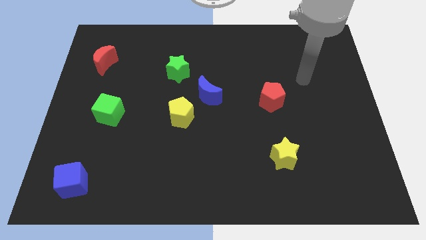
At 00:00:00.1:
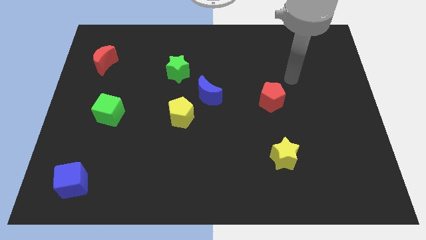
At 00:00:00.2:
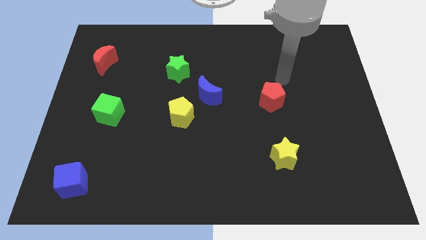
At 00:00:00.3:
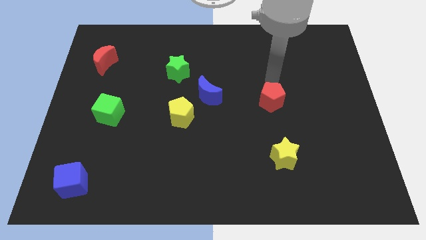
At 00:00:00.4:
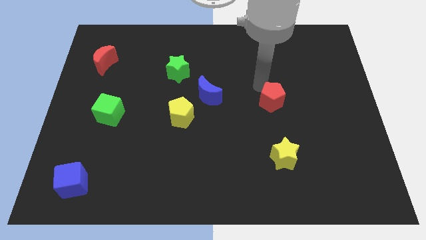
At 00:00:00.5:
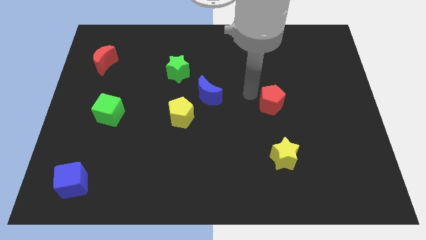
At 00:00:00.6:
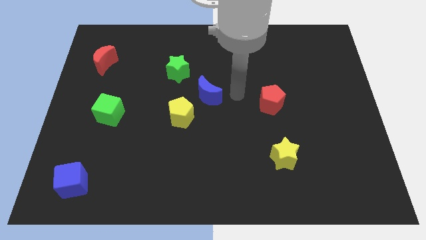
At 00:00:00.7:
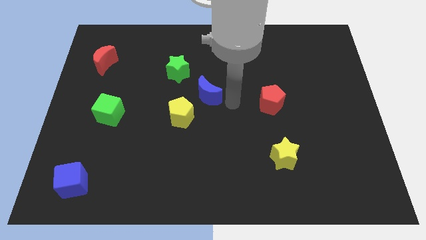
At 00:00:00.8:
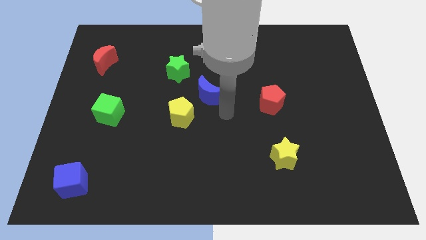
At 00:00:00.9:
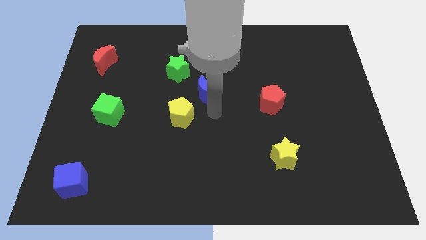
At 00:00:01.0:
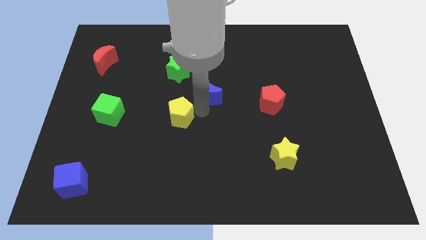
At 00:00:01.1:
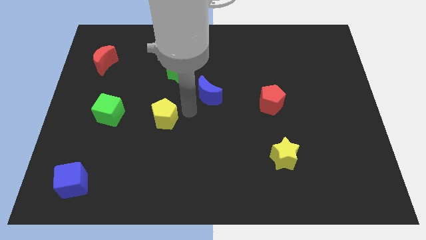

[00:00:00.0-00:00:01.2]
move the blue moon away from the yellow pentagon

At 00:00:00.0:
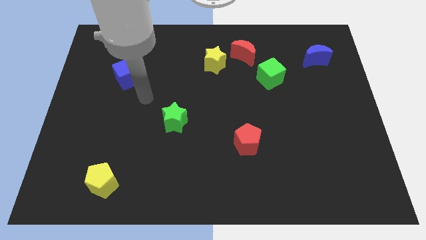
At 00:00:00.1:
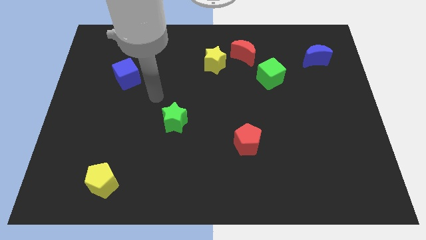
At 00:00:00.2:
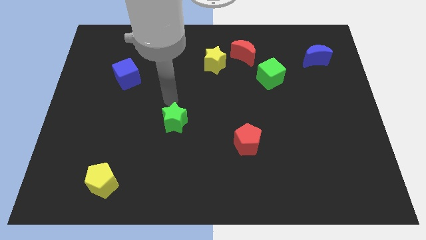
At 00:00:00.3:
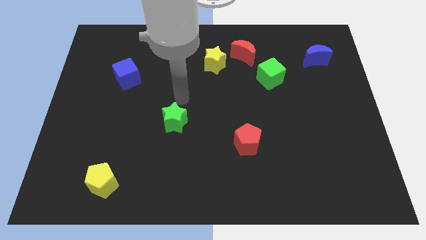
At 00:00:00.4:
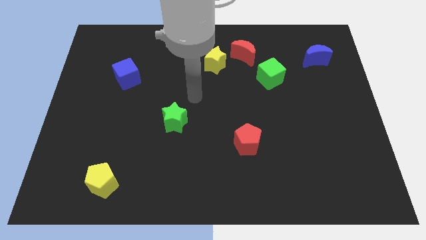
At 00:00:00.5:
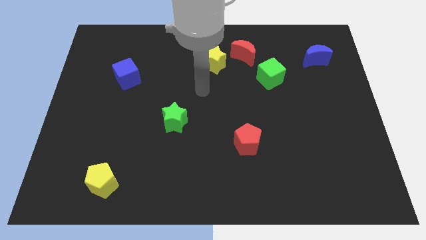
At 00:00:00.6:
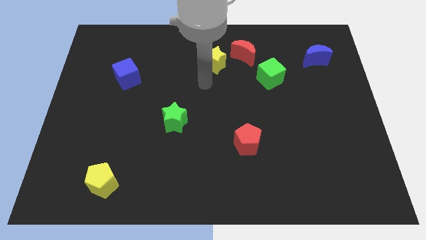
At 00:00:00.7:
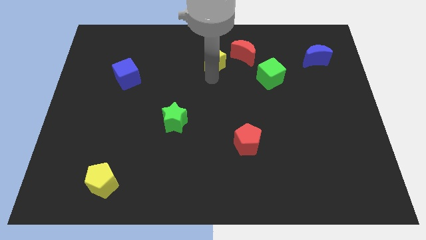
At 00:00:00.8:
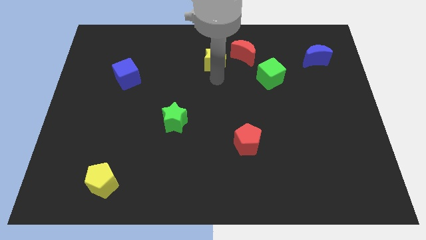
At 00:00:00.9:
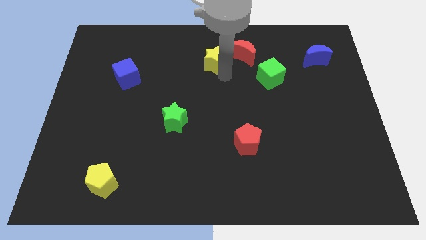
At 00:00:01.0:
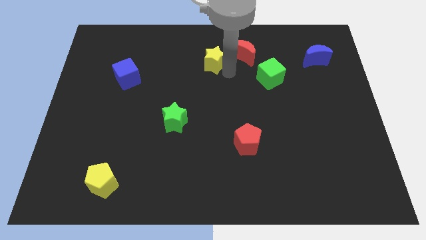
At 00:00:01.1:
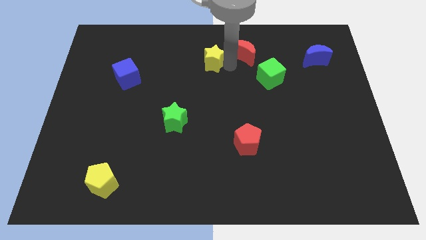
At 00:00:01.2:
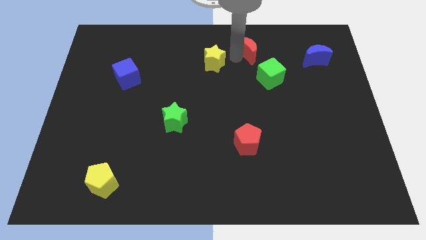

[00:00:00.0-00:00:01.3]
separate the yellow star from the red moon

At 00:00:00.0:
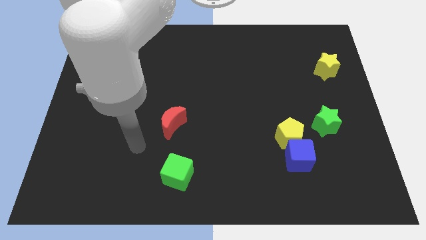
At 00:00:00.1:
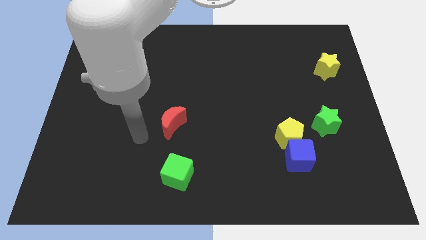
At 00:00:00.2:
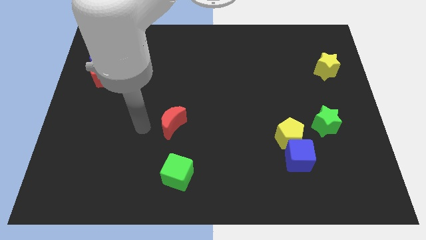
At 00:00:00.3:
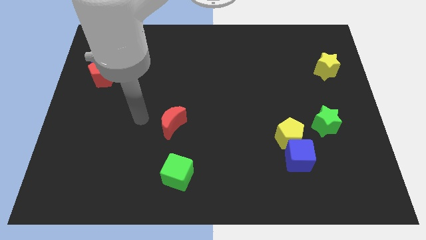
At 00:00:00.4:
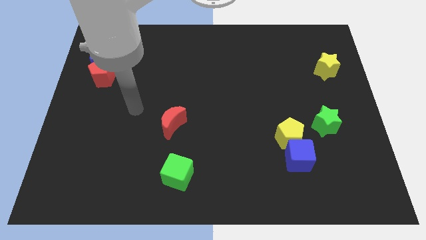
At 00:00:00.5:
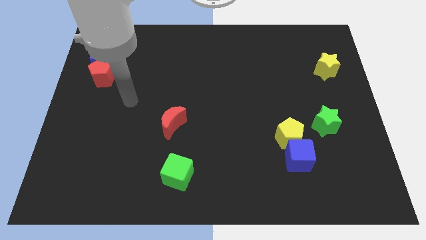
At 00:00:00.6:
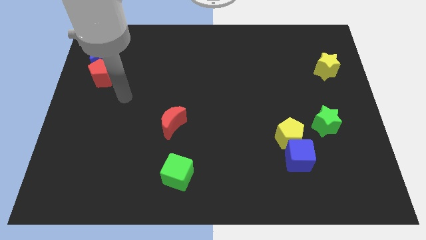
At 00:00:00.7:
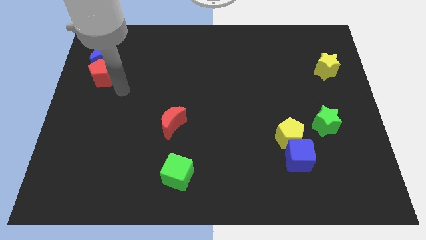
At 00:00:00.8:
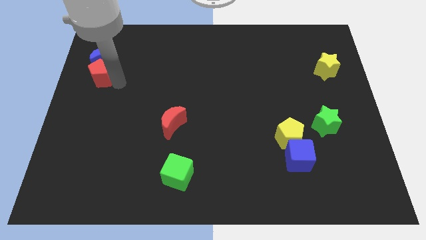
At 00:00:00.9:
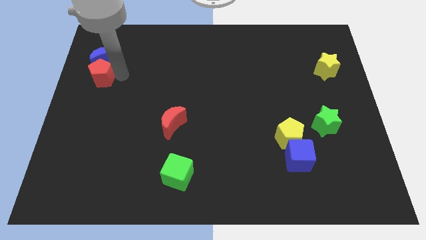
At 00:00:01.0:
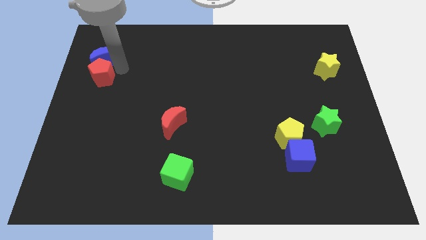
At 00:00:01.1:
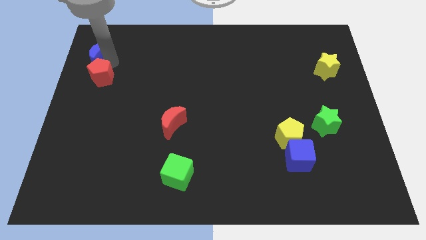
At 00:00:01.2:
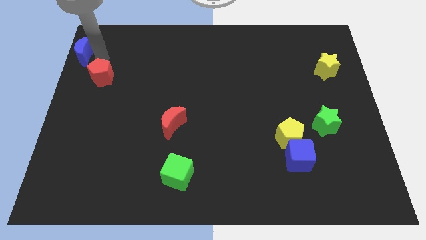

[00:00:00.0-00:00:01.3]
move the red pentagon away from the blue moon

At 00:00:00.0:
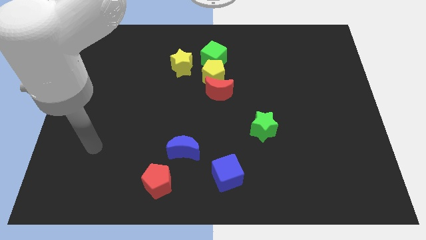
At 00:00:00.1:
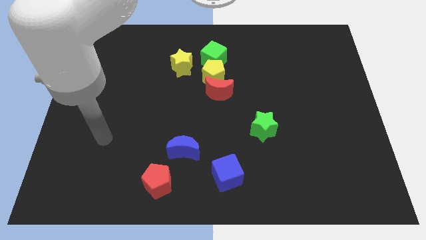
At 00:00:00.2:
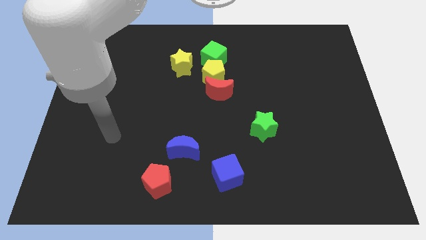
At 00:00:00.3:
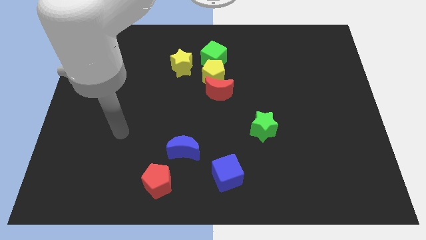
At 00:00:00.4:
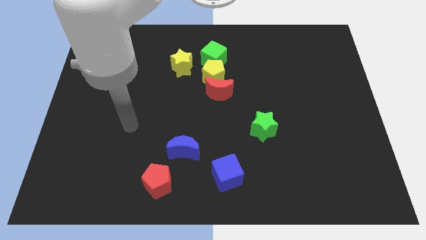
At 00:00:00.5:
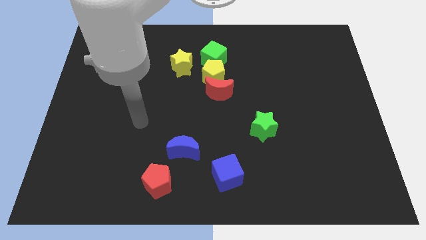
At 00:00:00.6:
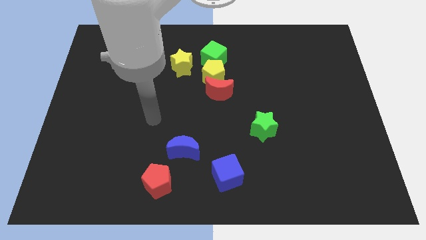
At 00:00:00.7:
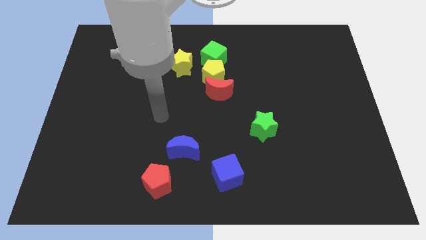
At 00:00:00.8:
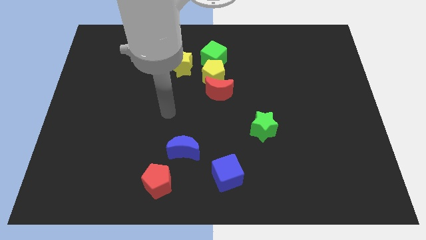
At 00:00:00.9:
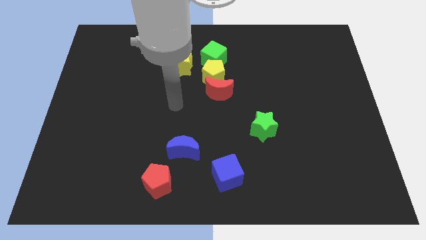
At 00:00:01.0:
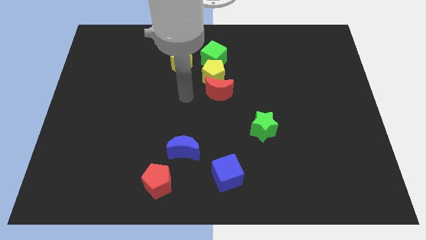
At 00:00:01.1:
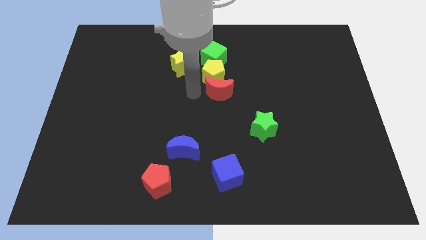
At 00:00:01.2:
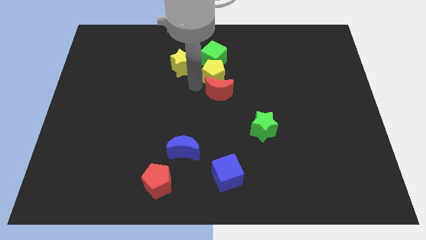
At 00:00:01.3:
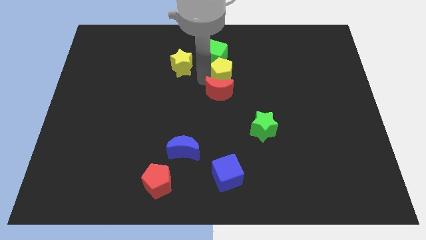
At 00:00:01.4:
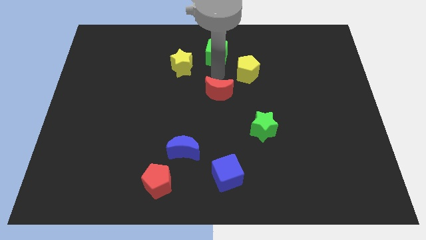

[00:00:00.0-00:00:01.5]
pull the red moon apart from the yellow pentagon

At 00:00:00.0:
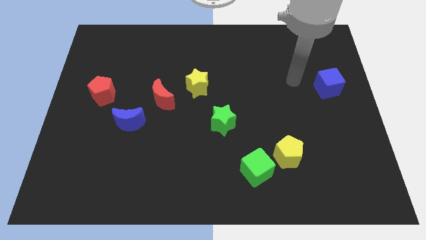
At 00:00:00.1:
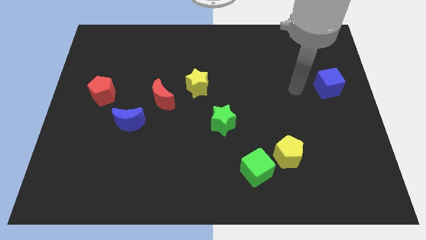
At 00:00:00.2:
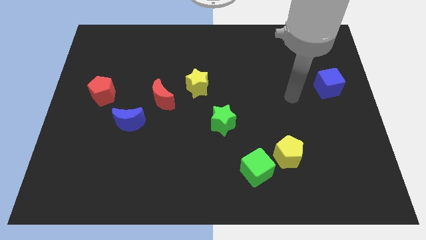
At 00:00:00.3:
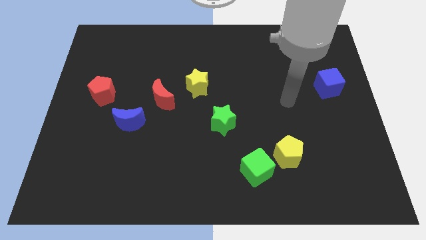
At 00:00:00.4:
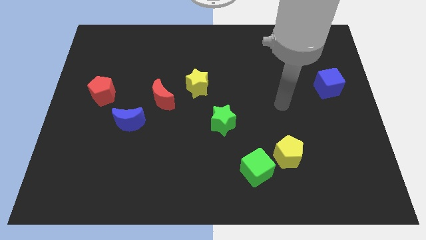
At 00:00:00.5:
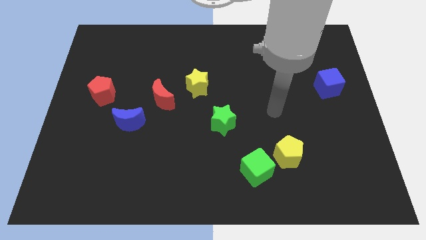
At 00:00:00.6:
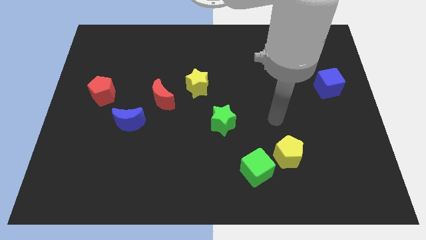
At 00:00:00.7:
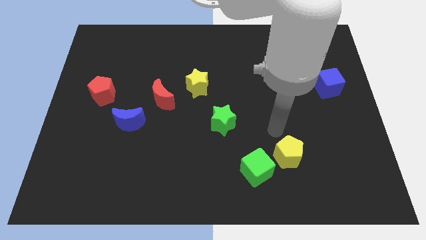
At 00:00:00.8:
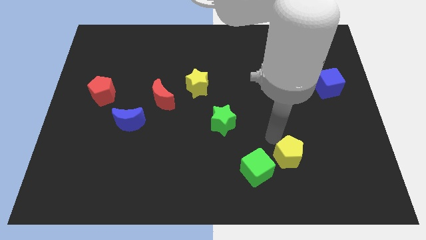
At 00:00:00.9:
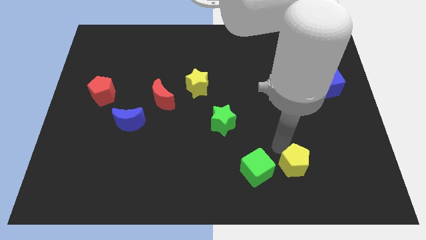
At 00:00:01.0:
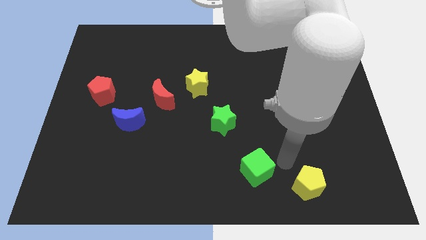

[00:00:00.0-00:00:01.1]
move the green cube away from the yellow pentagon

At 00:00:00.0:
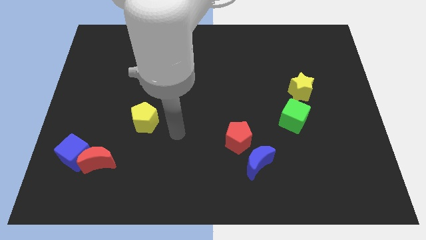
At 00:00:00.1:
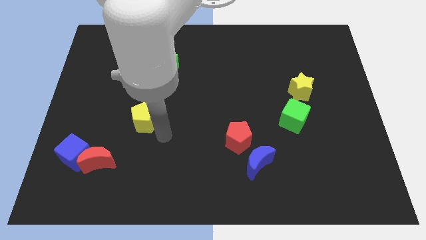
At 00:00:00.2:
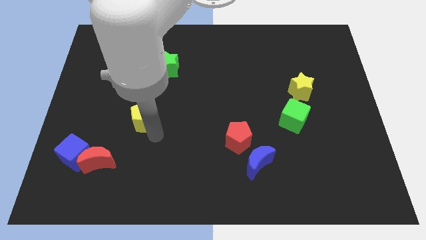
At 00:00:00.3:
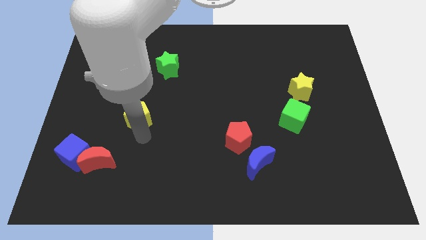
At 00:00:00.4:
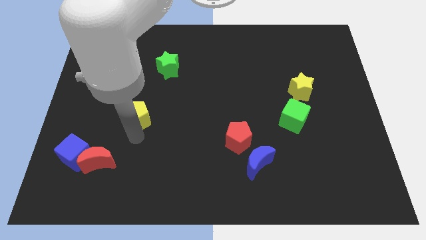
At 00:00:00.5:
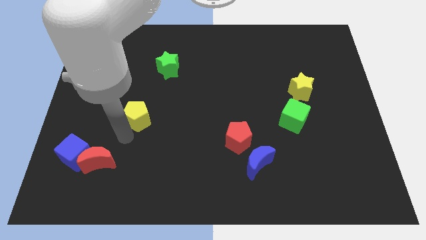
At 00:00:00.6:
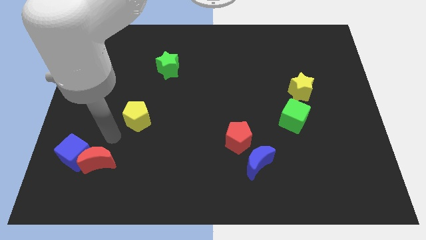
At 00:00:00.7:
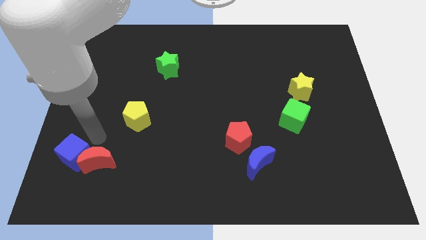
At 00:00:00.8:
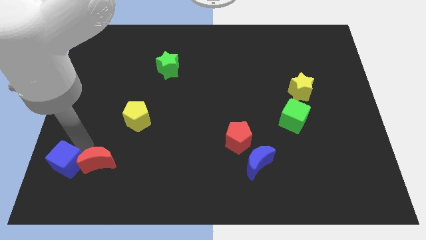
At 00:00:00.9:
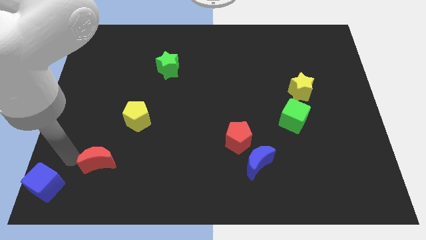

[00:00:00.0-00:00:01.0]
move the red moon away from the blue cube

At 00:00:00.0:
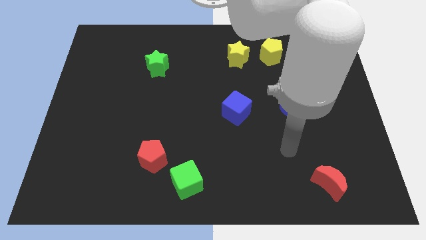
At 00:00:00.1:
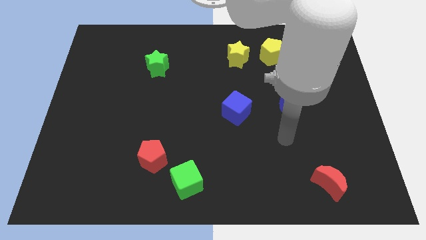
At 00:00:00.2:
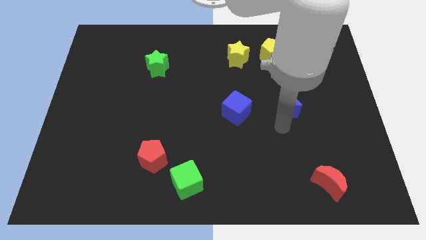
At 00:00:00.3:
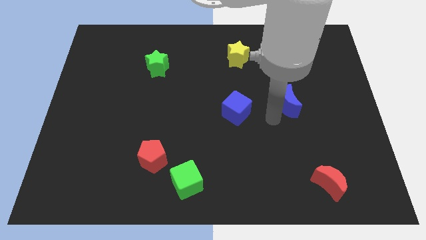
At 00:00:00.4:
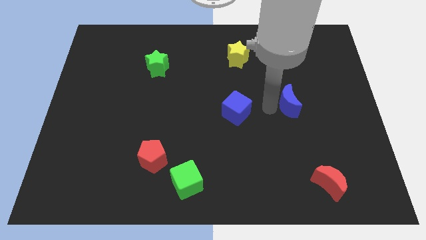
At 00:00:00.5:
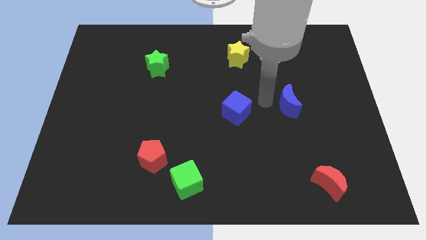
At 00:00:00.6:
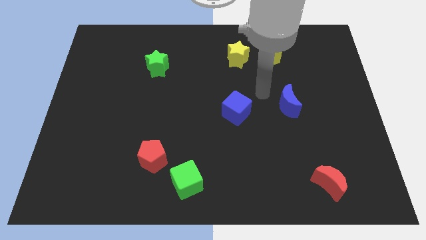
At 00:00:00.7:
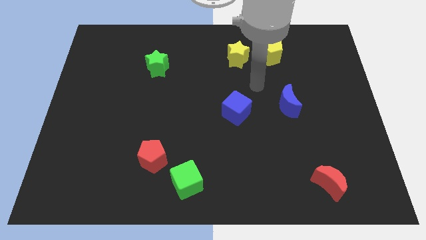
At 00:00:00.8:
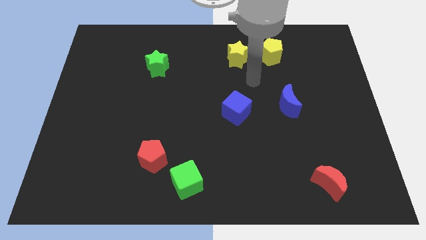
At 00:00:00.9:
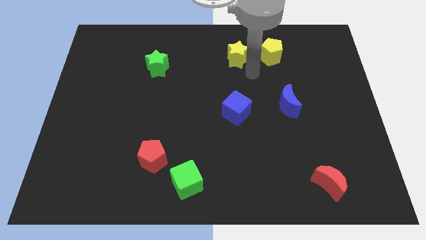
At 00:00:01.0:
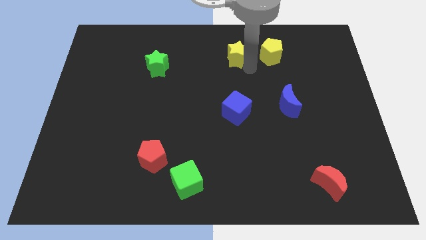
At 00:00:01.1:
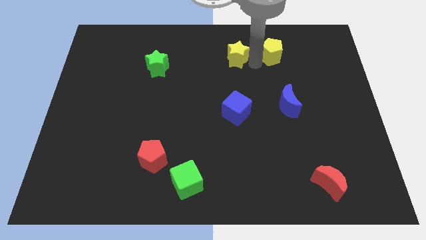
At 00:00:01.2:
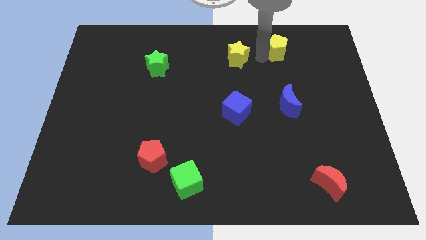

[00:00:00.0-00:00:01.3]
separate the yellow star from the yellow pentagon

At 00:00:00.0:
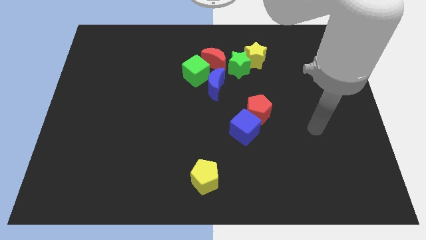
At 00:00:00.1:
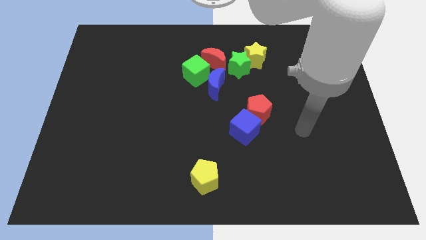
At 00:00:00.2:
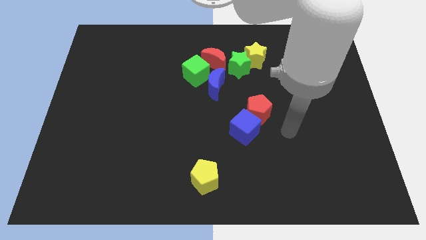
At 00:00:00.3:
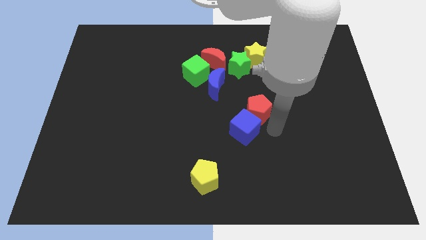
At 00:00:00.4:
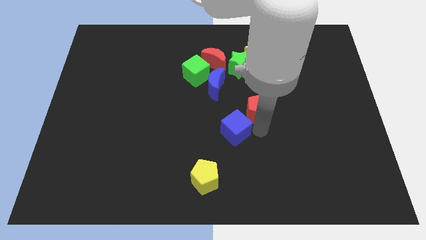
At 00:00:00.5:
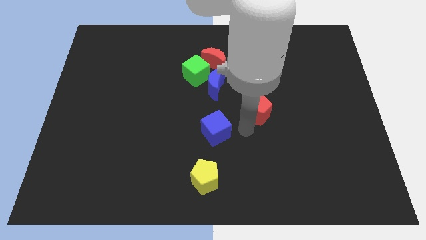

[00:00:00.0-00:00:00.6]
pull the red pentagon apart from the blue cube
